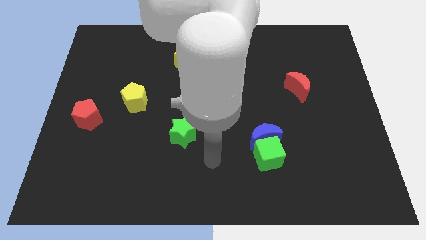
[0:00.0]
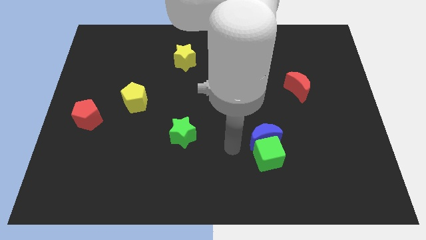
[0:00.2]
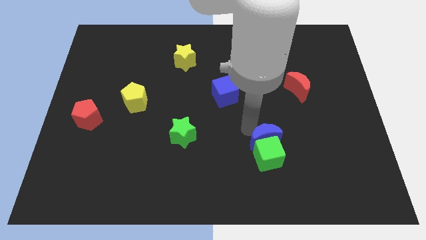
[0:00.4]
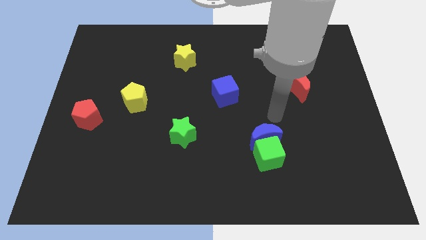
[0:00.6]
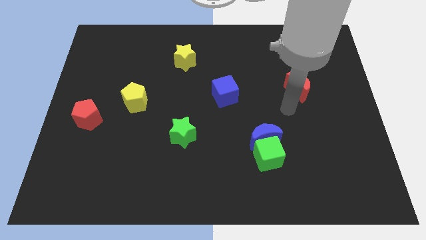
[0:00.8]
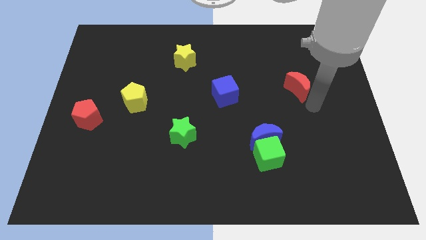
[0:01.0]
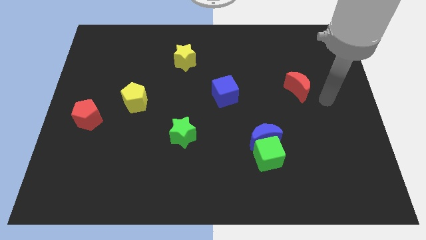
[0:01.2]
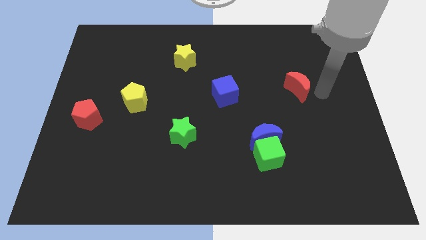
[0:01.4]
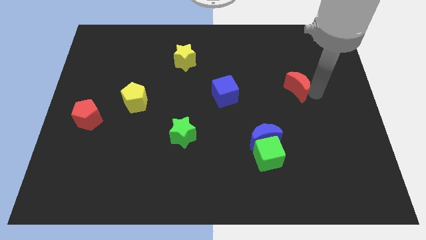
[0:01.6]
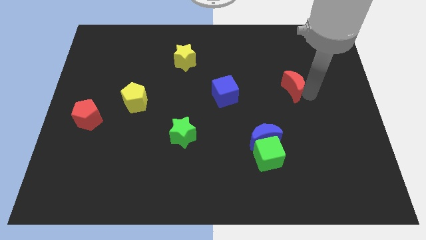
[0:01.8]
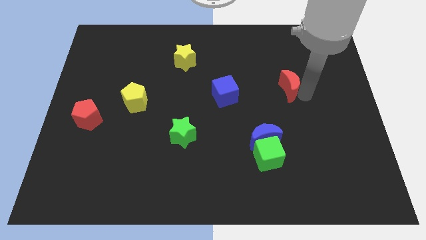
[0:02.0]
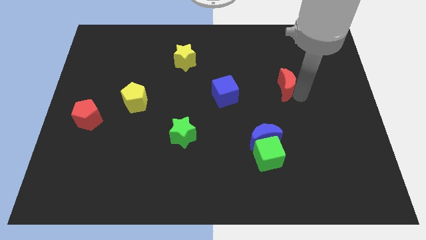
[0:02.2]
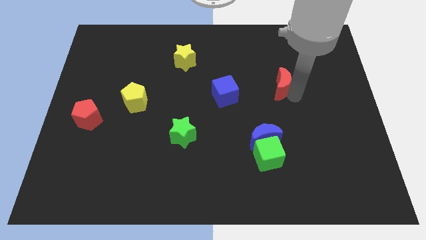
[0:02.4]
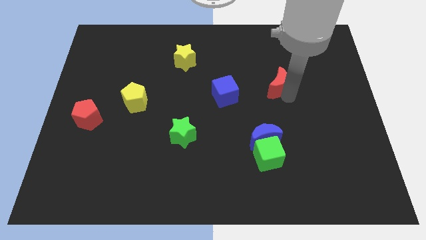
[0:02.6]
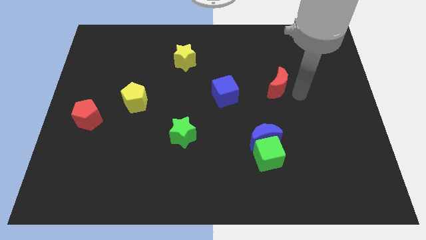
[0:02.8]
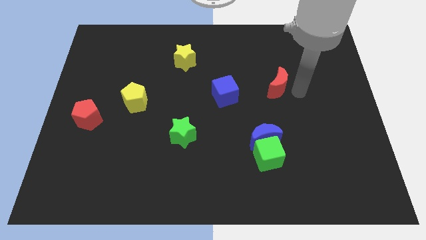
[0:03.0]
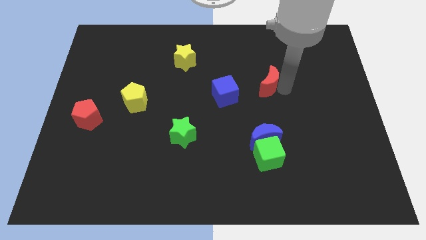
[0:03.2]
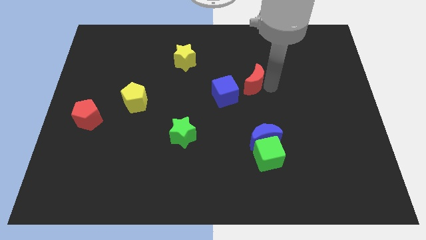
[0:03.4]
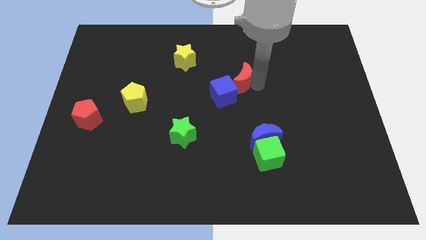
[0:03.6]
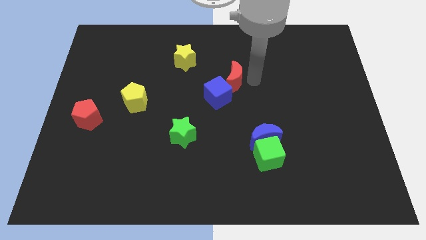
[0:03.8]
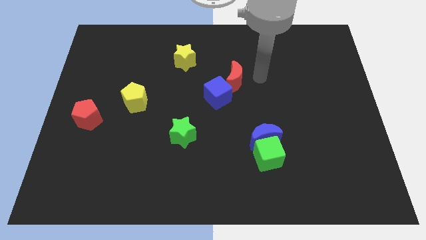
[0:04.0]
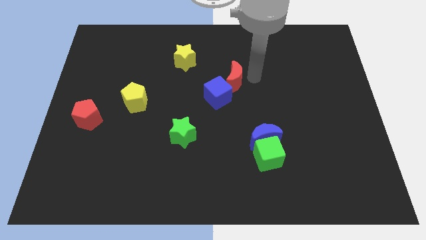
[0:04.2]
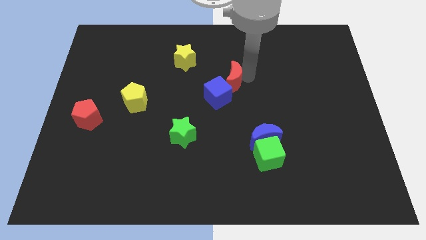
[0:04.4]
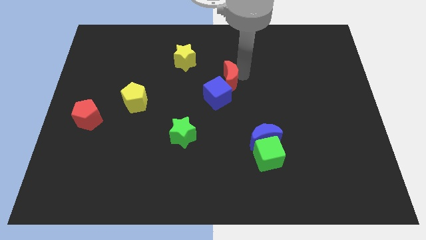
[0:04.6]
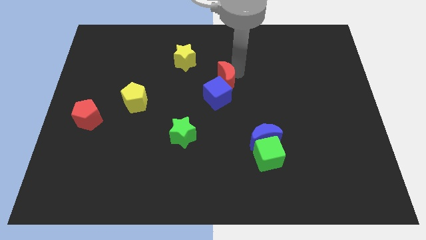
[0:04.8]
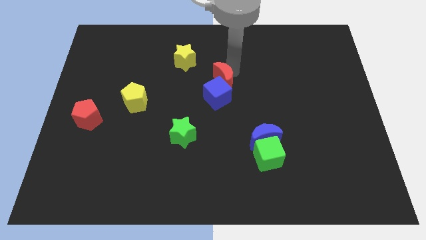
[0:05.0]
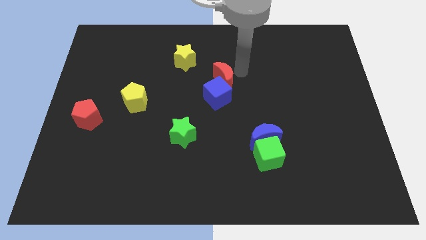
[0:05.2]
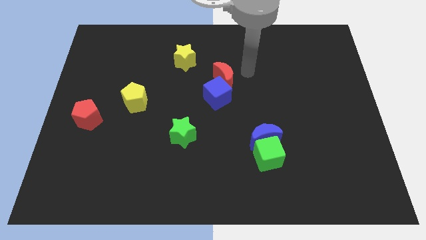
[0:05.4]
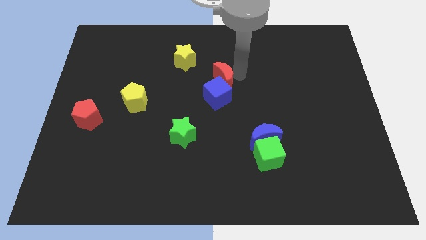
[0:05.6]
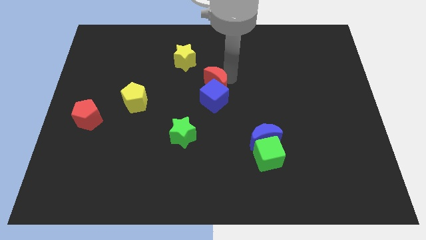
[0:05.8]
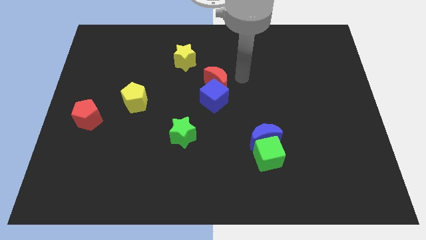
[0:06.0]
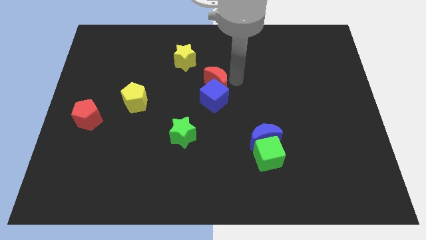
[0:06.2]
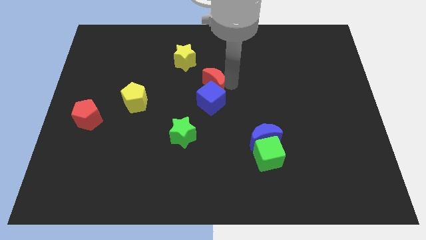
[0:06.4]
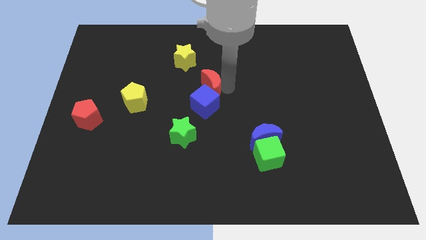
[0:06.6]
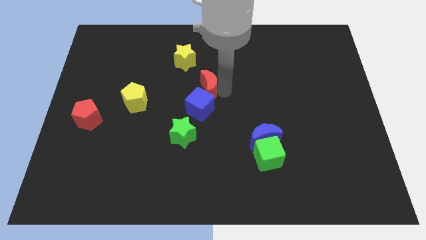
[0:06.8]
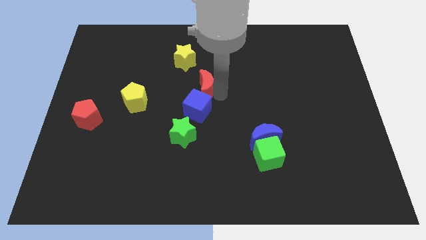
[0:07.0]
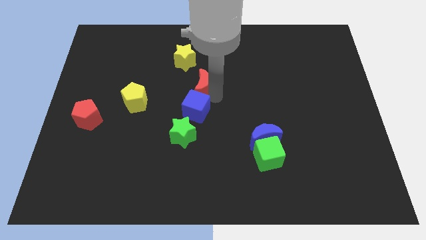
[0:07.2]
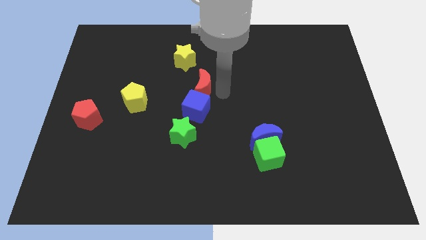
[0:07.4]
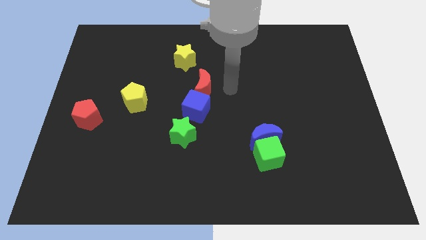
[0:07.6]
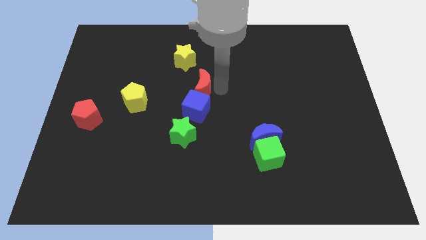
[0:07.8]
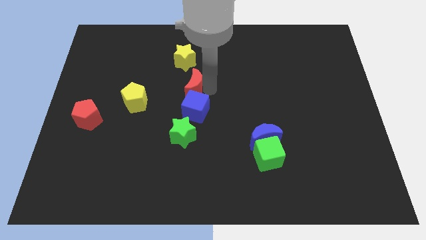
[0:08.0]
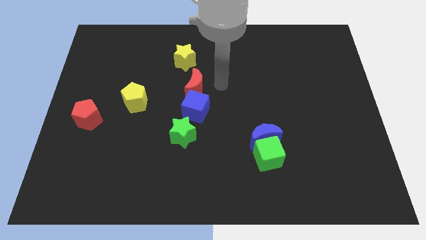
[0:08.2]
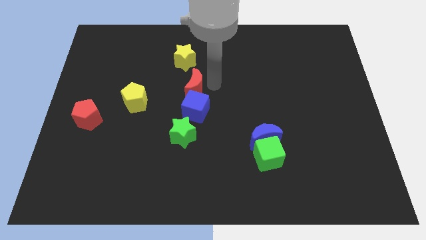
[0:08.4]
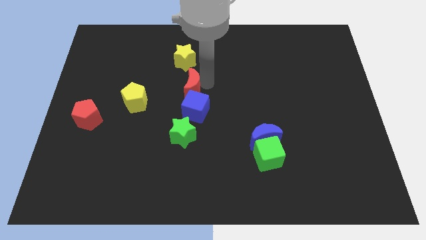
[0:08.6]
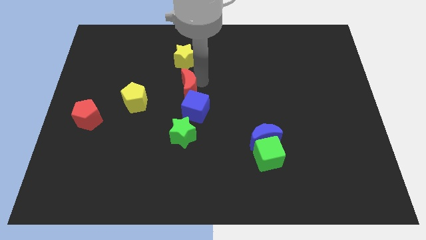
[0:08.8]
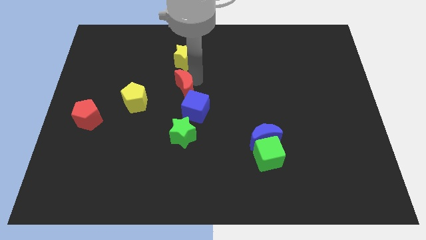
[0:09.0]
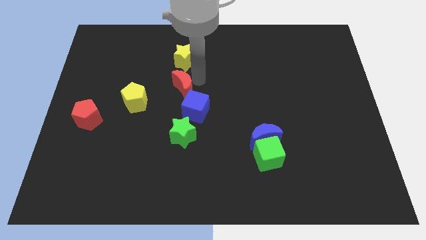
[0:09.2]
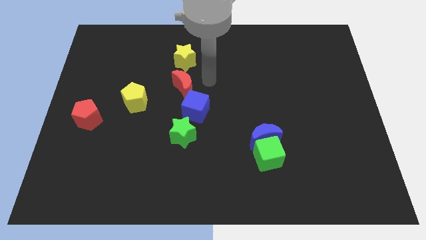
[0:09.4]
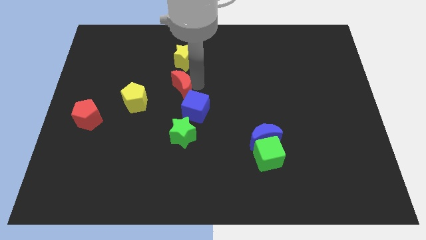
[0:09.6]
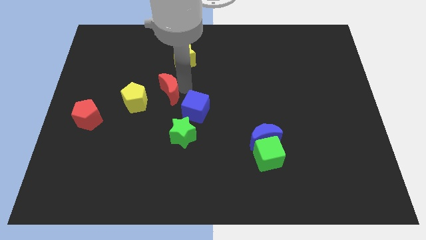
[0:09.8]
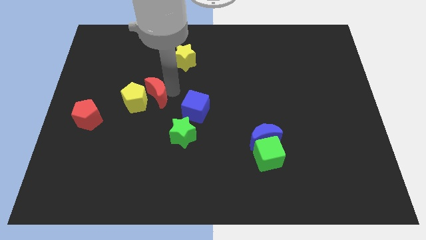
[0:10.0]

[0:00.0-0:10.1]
slide the red moon next to the yellow pentagon

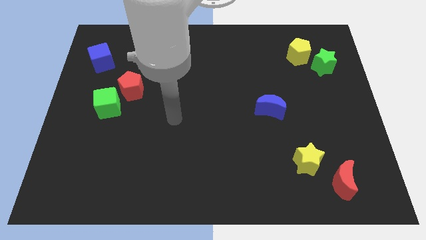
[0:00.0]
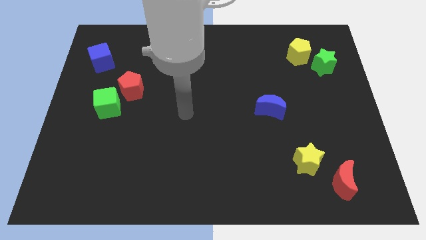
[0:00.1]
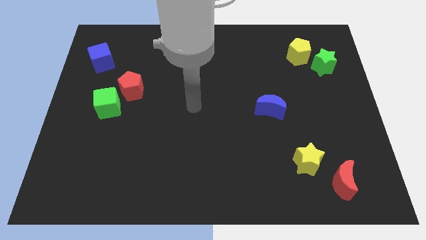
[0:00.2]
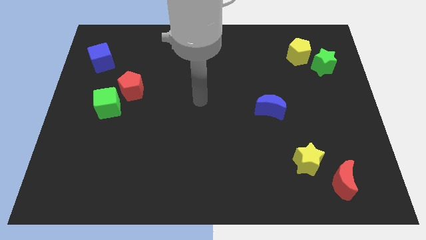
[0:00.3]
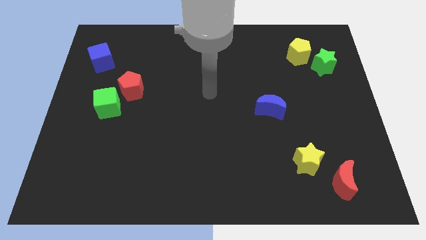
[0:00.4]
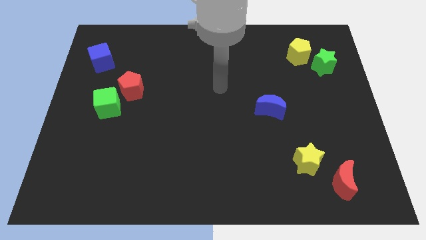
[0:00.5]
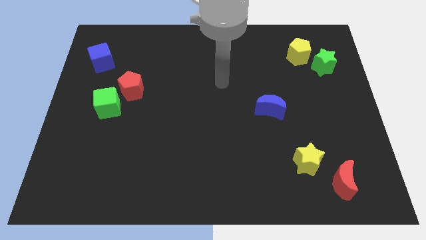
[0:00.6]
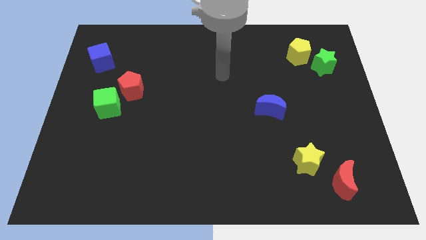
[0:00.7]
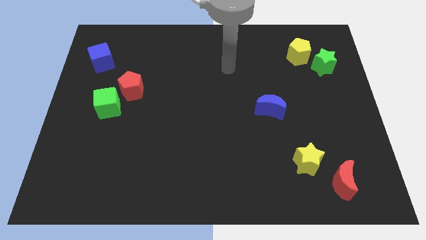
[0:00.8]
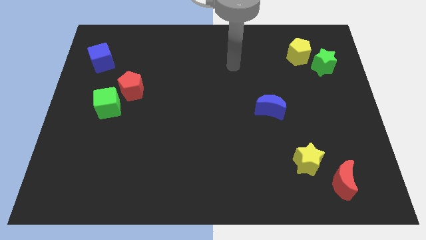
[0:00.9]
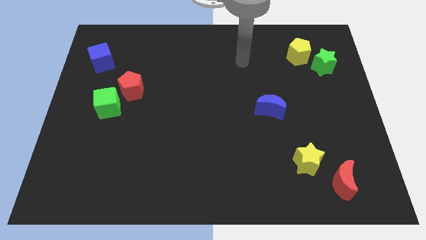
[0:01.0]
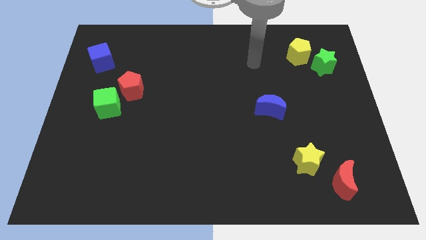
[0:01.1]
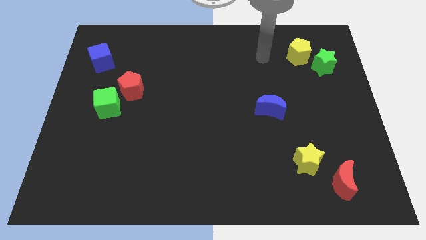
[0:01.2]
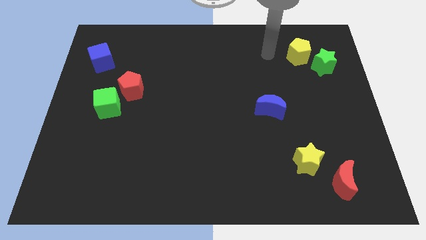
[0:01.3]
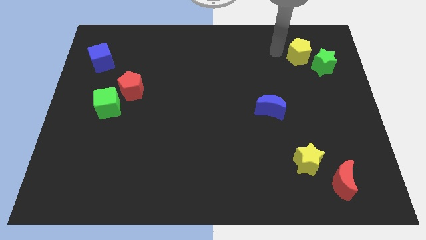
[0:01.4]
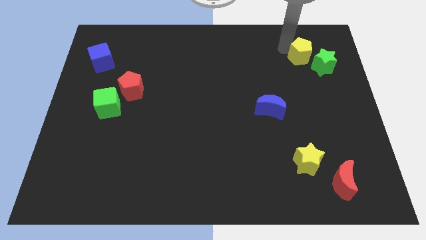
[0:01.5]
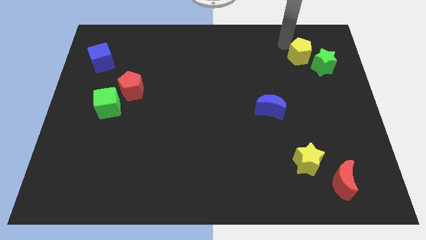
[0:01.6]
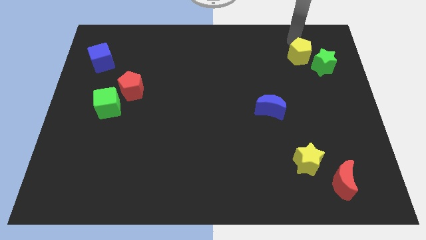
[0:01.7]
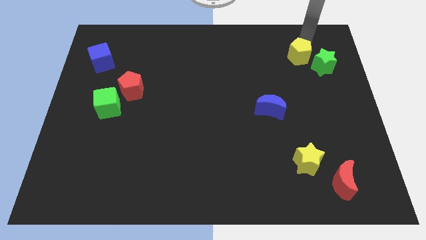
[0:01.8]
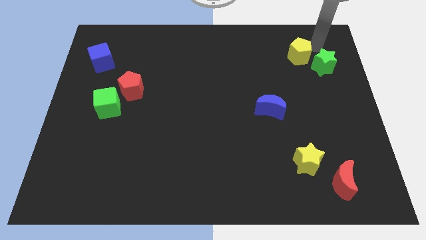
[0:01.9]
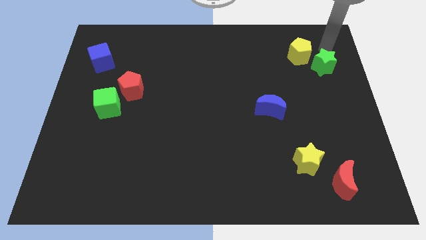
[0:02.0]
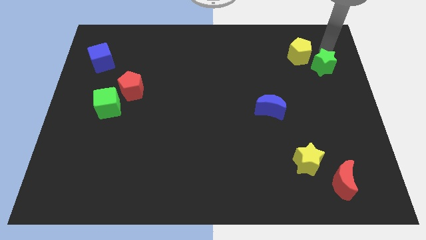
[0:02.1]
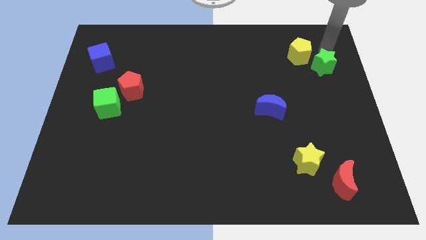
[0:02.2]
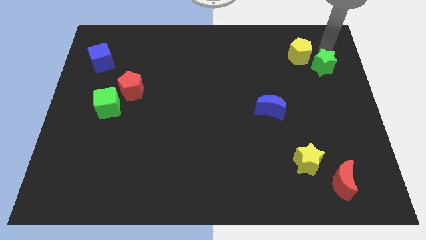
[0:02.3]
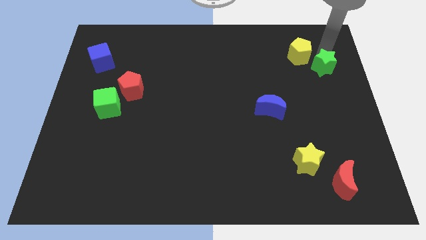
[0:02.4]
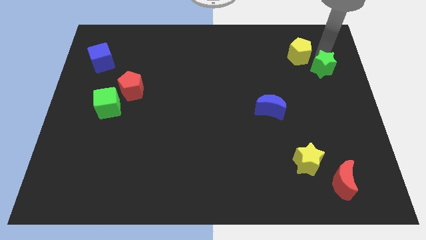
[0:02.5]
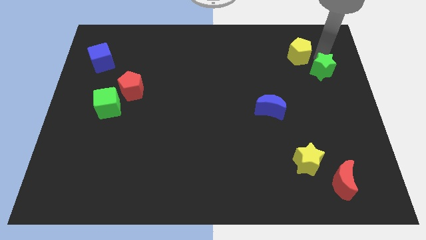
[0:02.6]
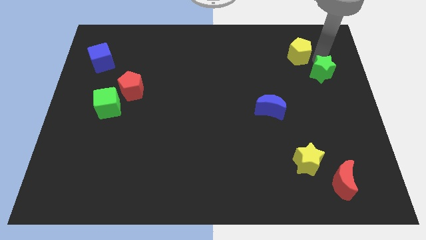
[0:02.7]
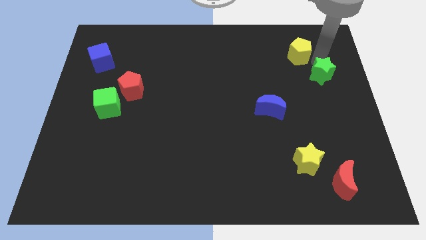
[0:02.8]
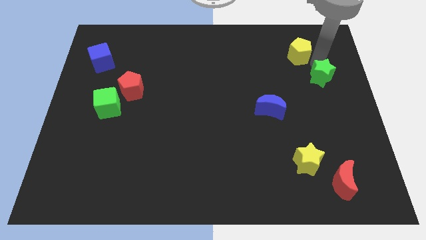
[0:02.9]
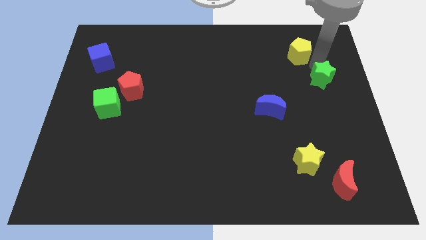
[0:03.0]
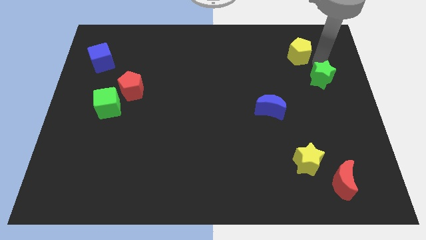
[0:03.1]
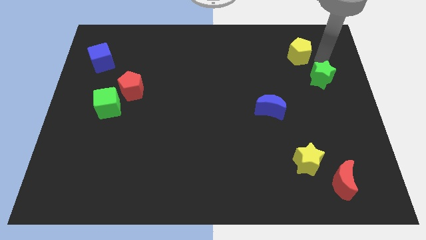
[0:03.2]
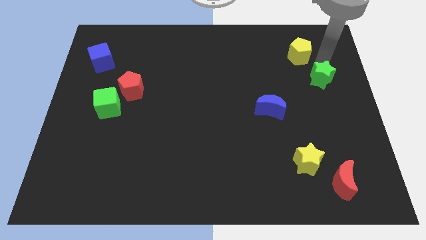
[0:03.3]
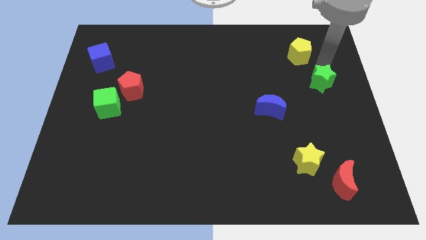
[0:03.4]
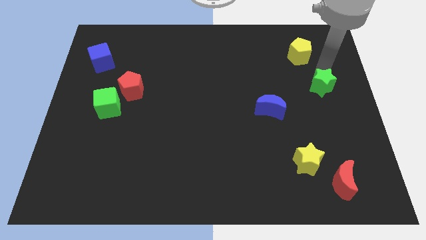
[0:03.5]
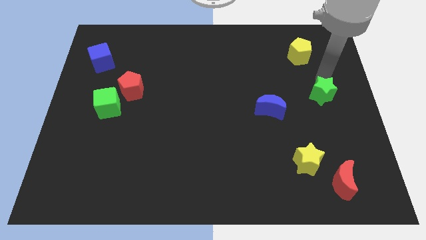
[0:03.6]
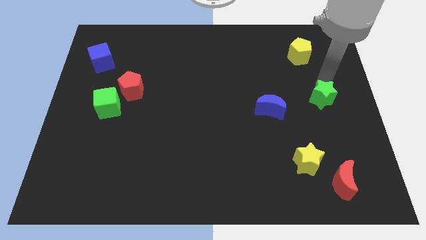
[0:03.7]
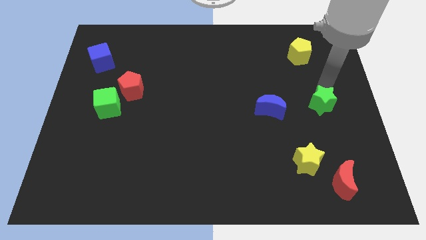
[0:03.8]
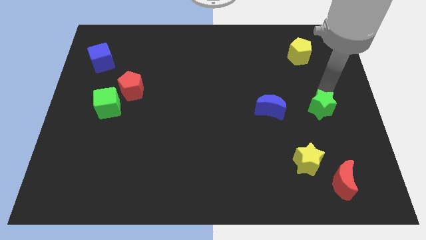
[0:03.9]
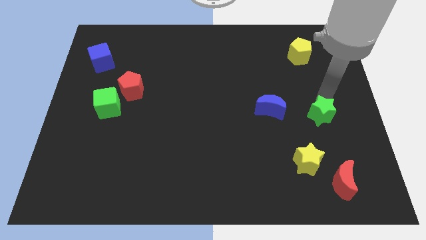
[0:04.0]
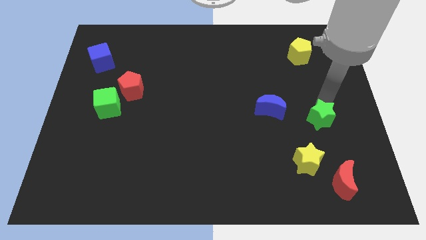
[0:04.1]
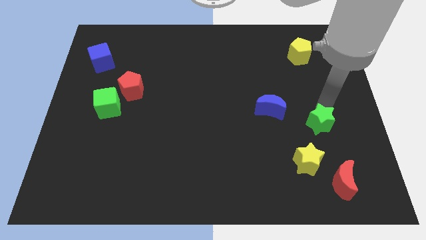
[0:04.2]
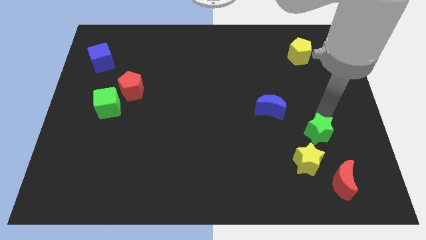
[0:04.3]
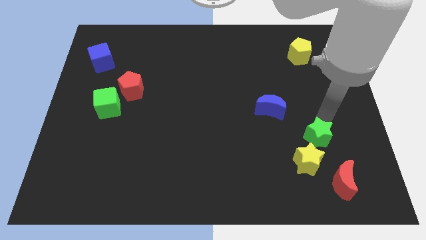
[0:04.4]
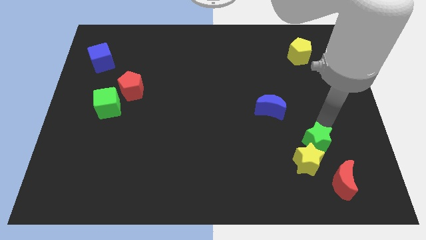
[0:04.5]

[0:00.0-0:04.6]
move the green star close to the yellow star
